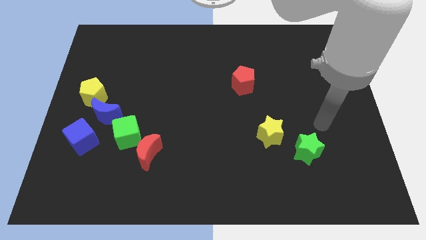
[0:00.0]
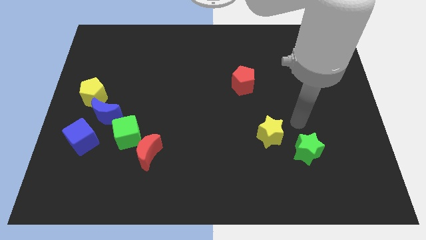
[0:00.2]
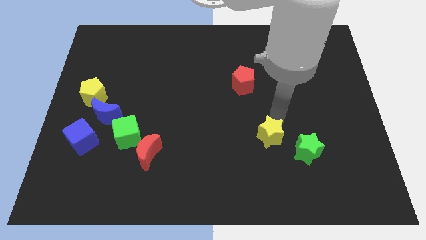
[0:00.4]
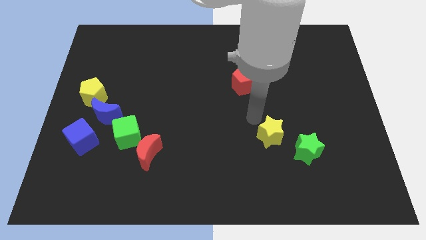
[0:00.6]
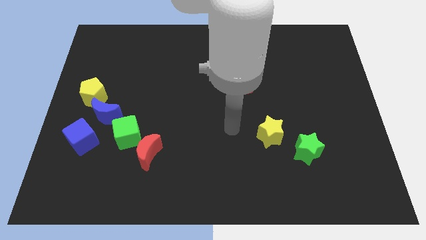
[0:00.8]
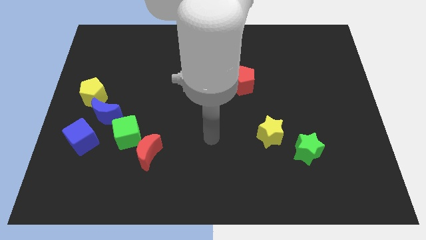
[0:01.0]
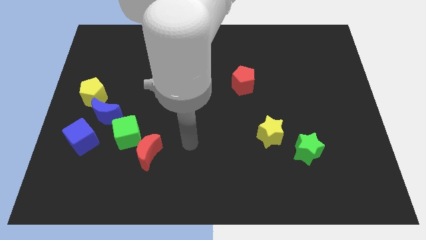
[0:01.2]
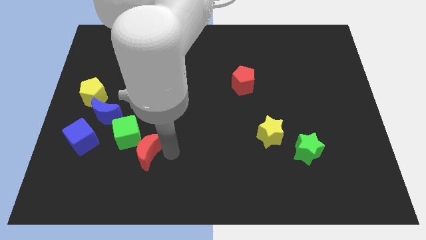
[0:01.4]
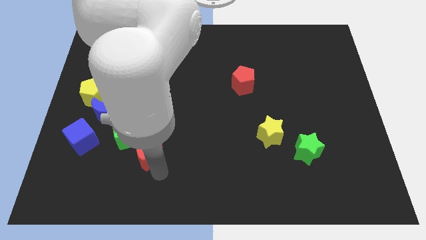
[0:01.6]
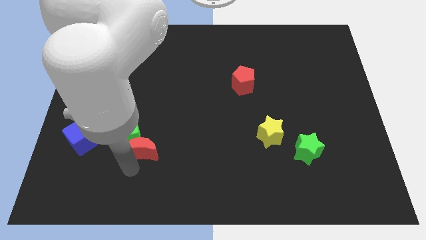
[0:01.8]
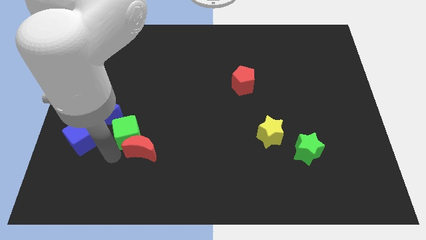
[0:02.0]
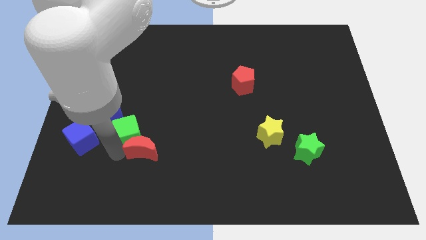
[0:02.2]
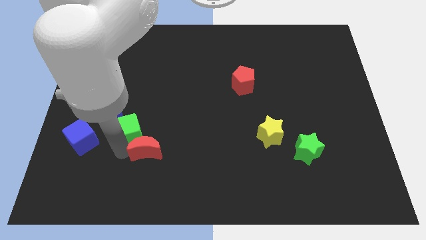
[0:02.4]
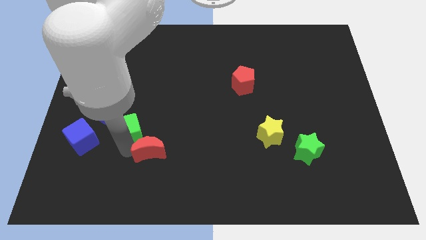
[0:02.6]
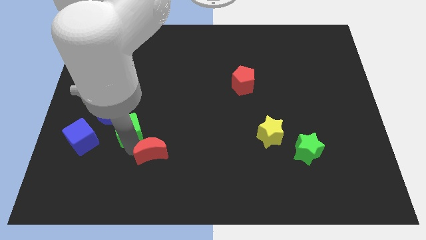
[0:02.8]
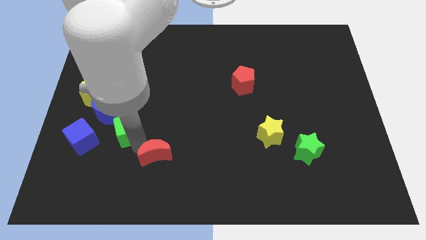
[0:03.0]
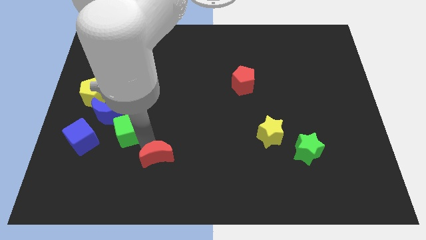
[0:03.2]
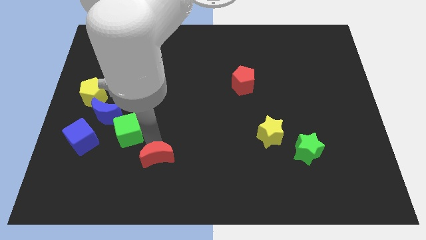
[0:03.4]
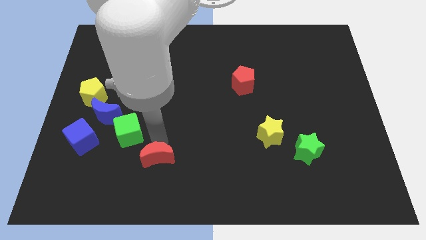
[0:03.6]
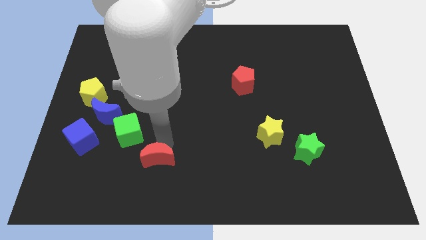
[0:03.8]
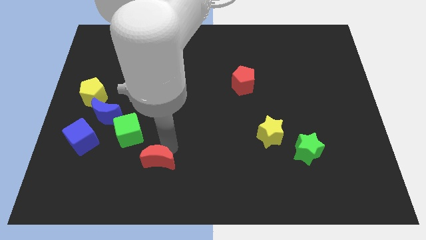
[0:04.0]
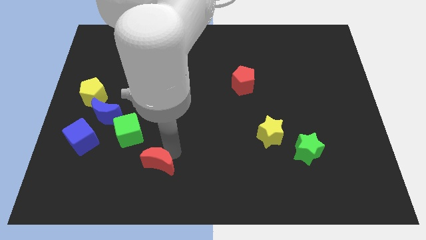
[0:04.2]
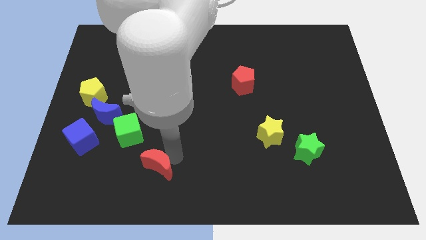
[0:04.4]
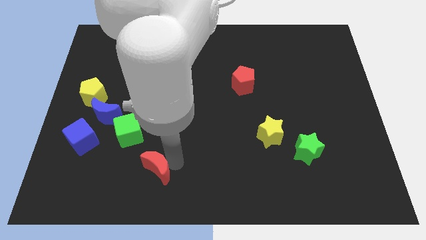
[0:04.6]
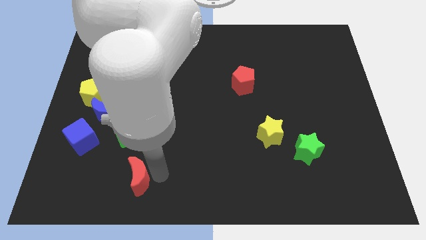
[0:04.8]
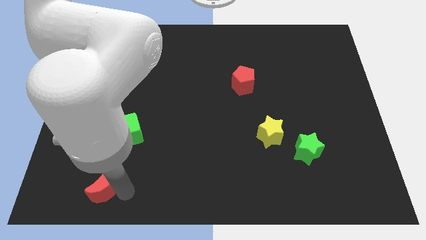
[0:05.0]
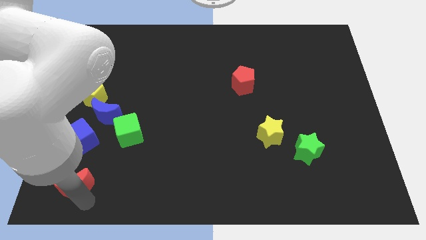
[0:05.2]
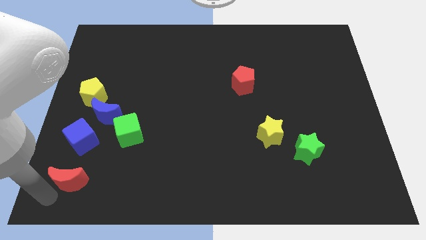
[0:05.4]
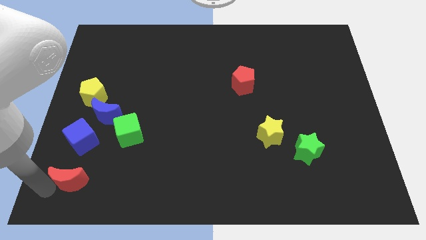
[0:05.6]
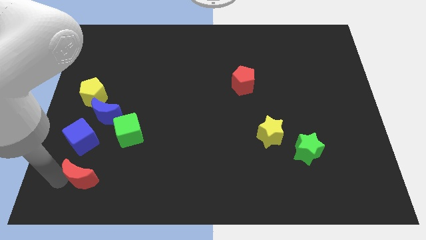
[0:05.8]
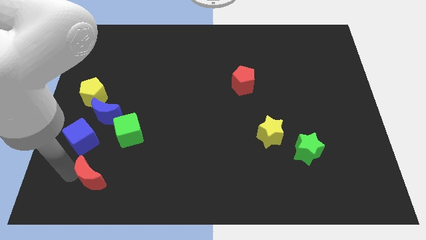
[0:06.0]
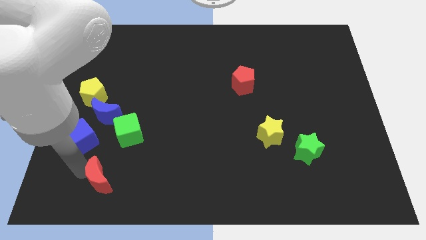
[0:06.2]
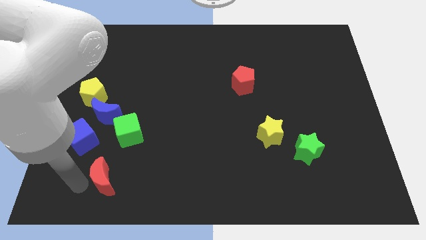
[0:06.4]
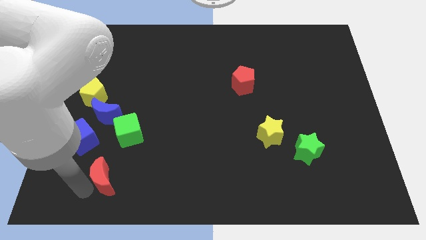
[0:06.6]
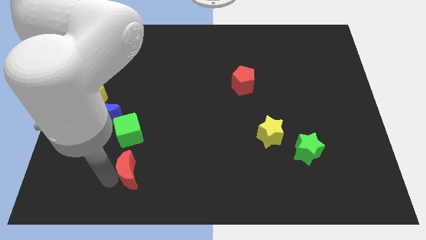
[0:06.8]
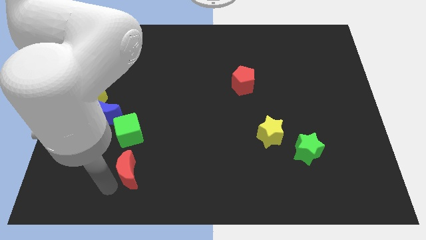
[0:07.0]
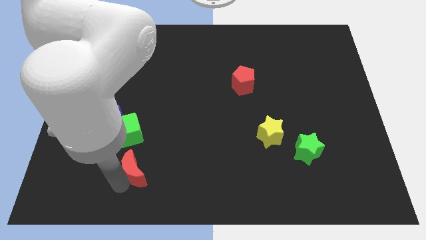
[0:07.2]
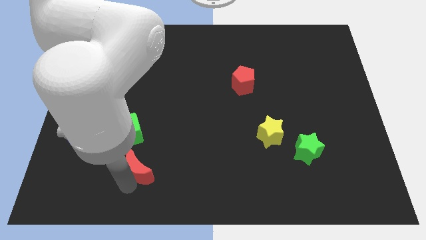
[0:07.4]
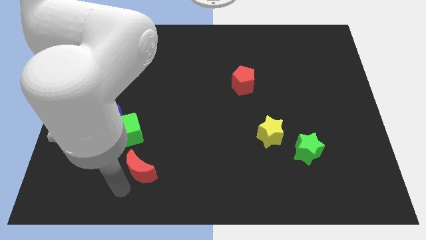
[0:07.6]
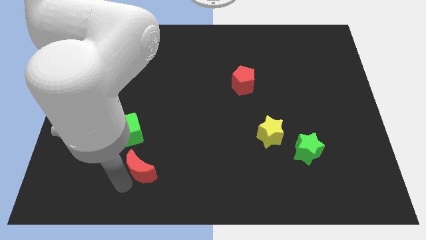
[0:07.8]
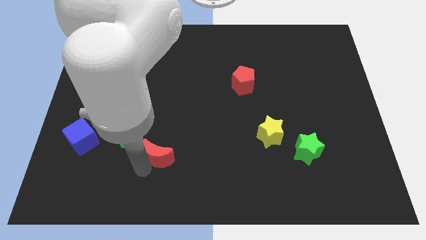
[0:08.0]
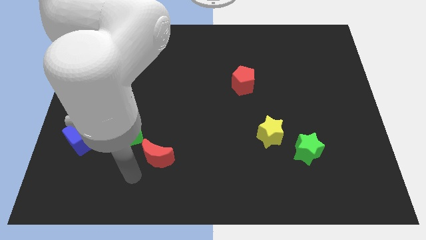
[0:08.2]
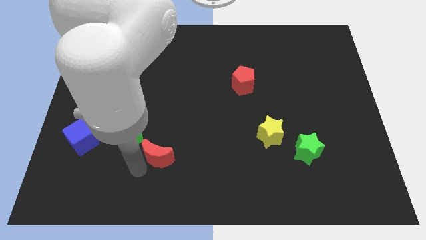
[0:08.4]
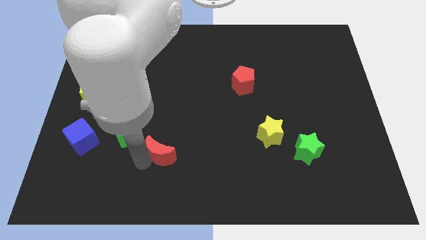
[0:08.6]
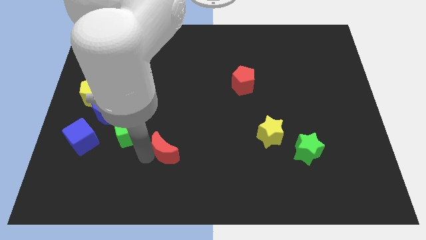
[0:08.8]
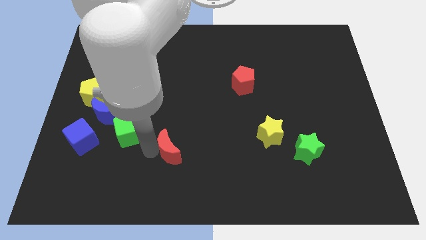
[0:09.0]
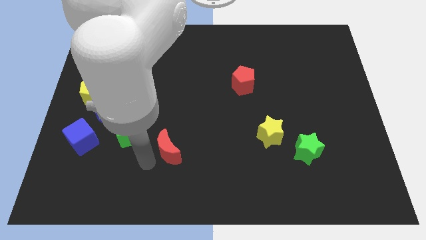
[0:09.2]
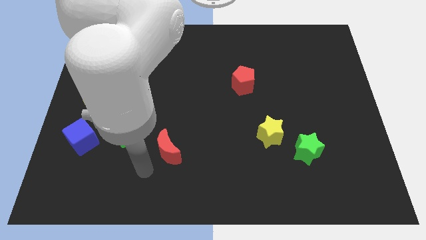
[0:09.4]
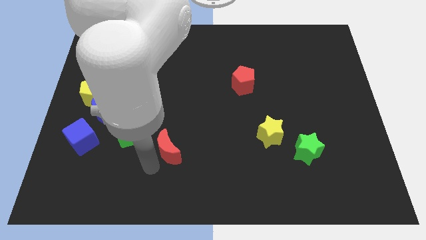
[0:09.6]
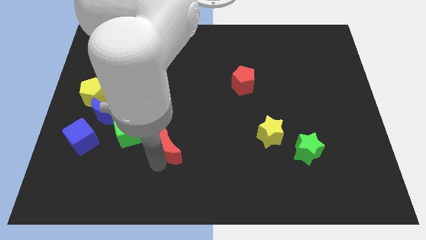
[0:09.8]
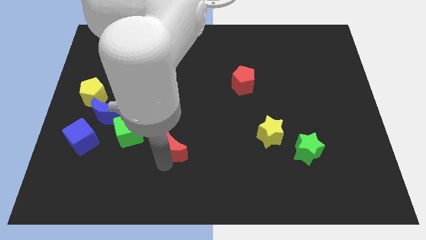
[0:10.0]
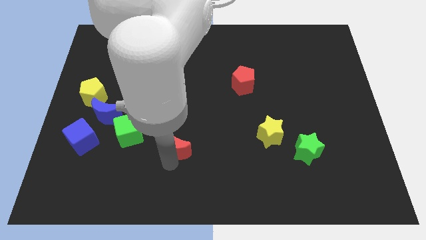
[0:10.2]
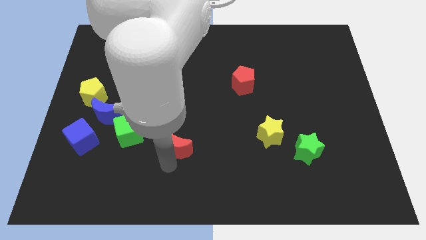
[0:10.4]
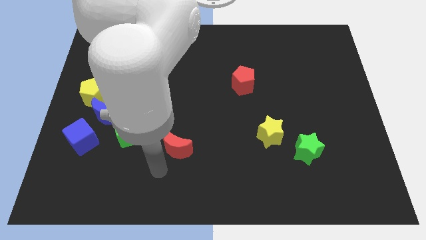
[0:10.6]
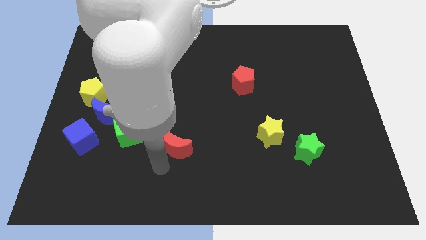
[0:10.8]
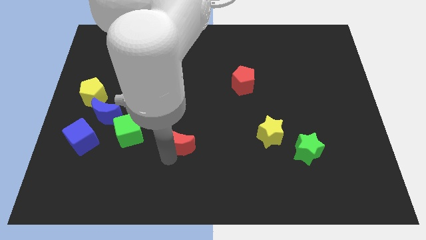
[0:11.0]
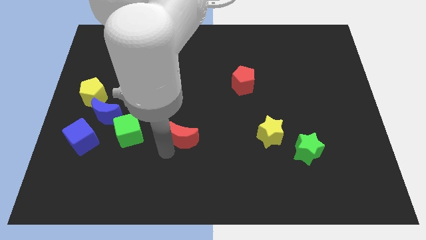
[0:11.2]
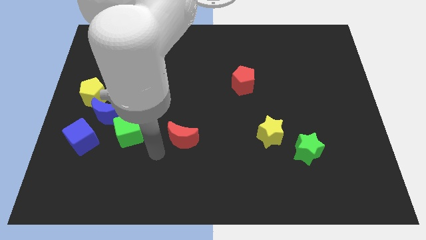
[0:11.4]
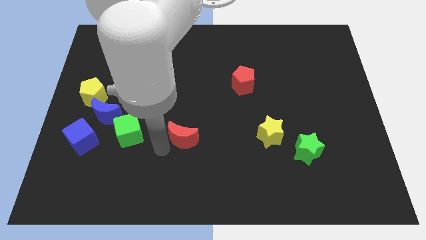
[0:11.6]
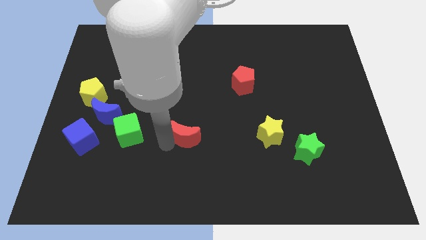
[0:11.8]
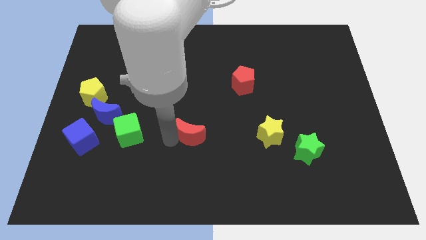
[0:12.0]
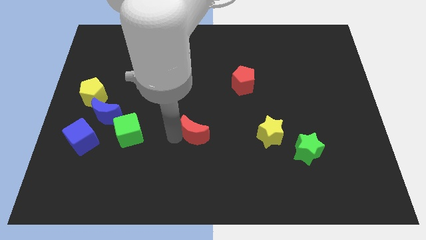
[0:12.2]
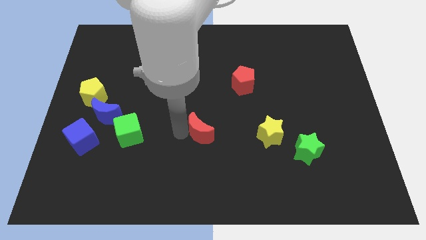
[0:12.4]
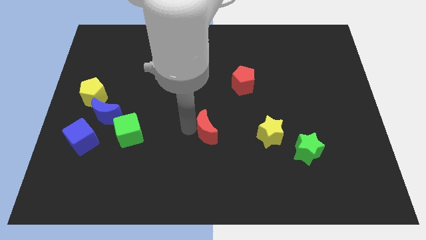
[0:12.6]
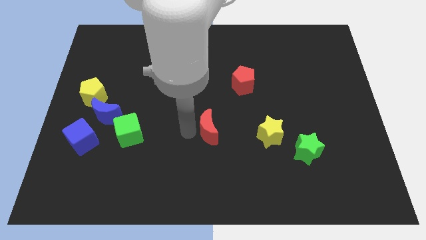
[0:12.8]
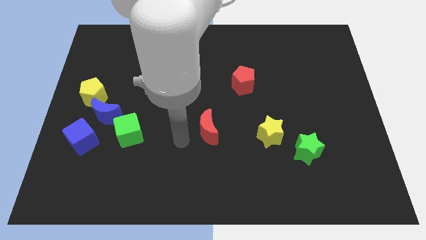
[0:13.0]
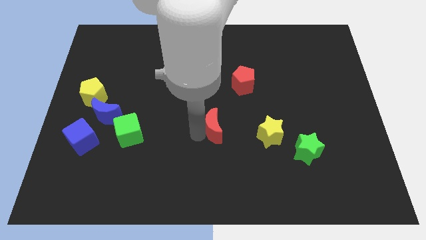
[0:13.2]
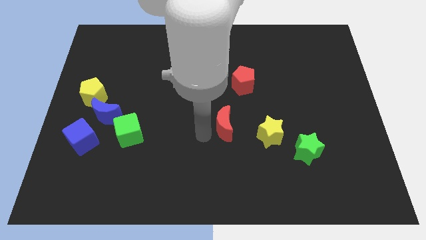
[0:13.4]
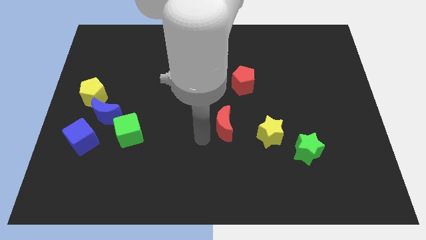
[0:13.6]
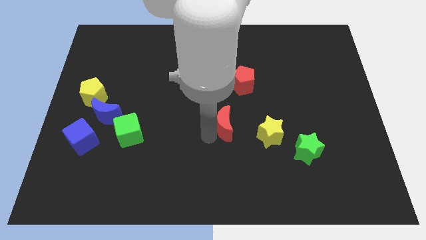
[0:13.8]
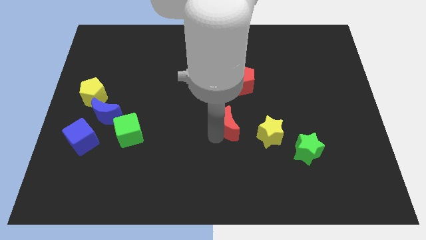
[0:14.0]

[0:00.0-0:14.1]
put the red moon to the top left side of the yellow star

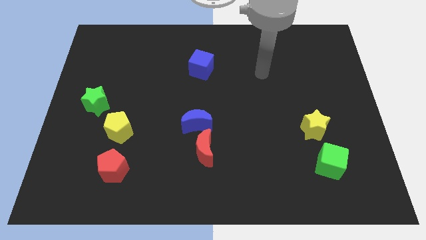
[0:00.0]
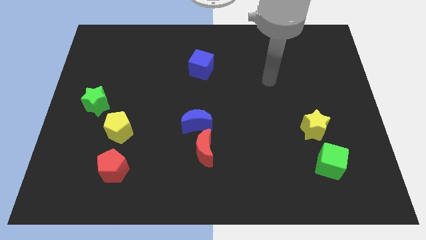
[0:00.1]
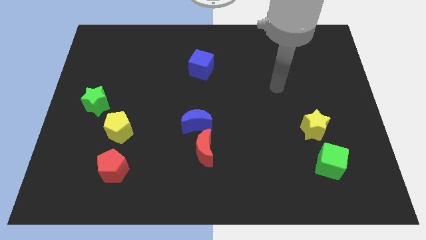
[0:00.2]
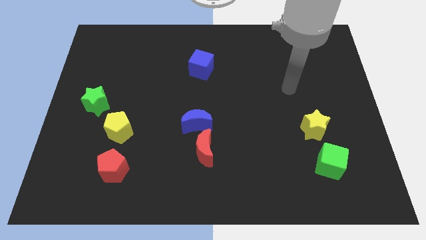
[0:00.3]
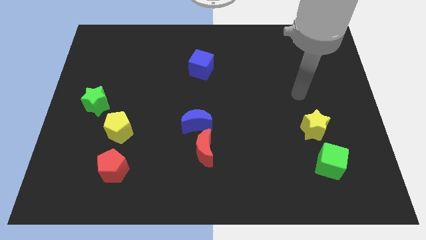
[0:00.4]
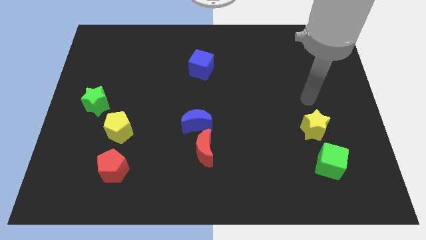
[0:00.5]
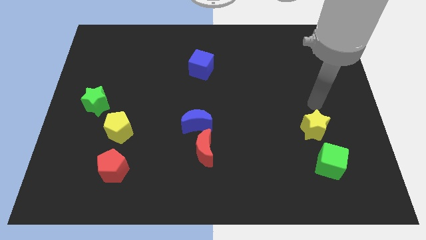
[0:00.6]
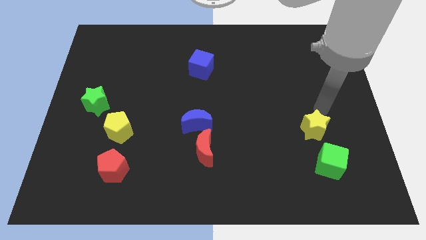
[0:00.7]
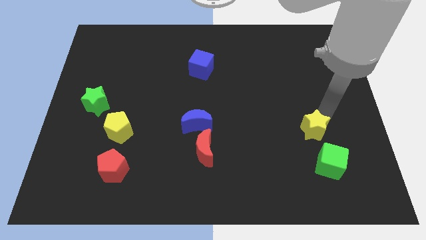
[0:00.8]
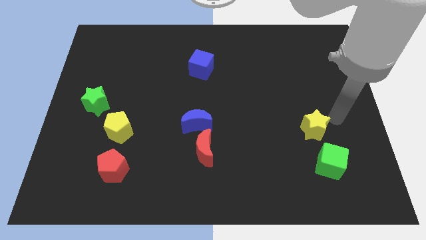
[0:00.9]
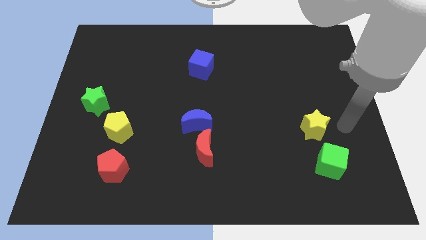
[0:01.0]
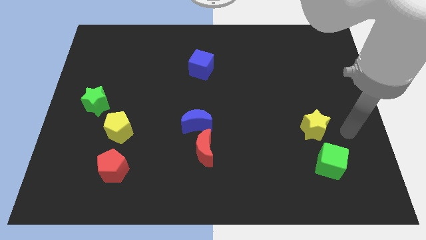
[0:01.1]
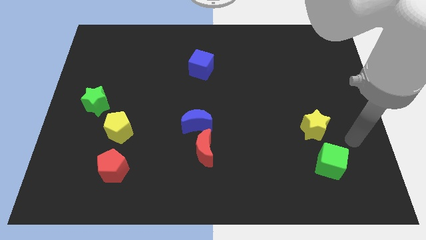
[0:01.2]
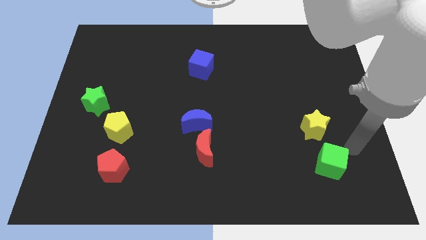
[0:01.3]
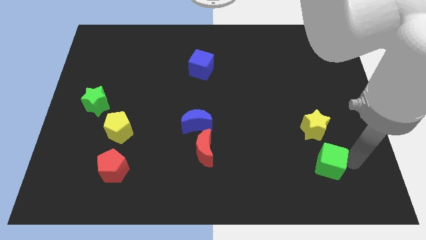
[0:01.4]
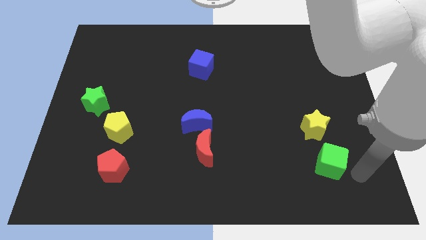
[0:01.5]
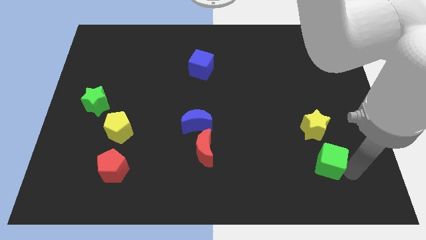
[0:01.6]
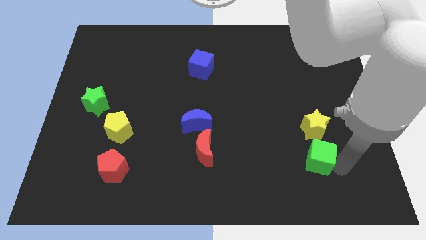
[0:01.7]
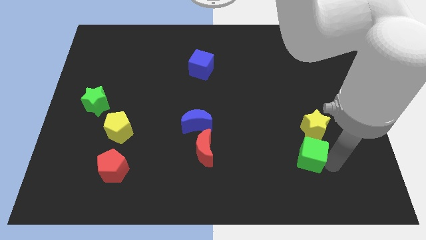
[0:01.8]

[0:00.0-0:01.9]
push the green cube diagonally down and to the left of the yellow star
